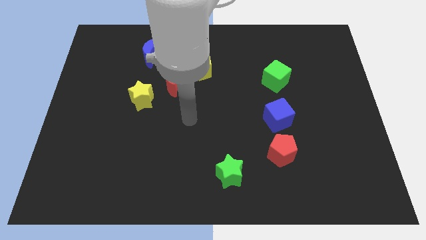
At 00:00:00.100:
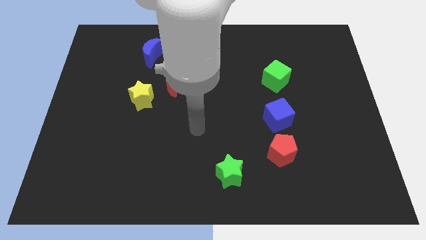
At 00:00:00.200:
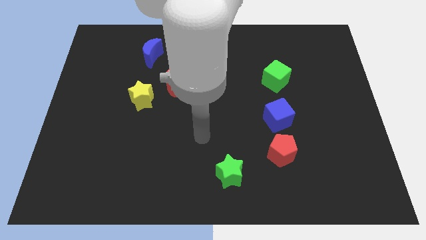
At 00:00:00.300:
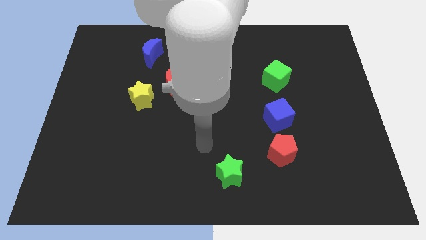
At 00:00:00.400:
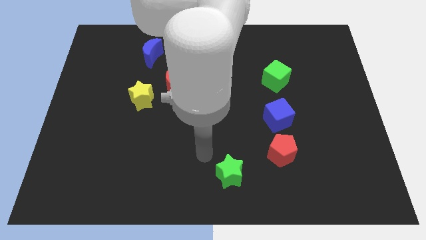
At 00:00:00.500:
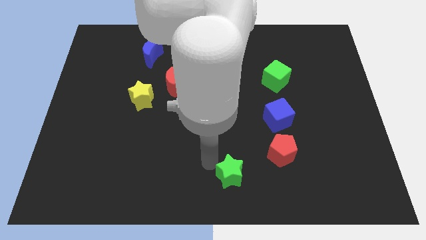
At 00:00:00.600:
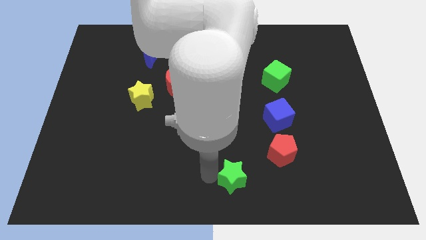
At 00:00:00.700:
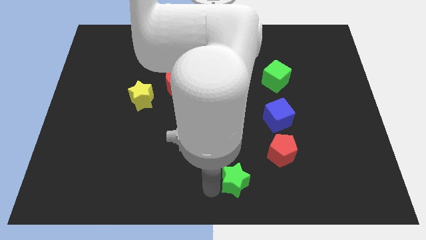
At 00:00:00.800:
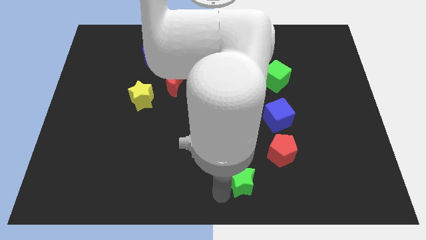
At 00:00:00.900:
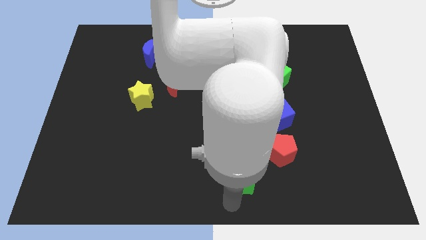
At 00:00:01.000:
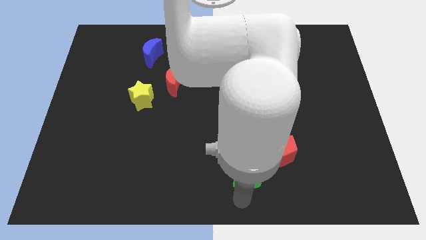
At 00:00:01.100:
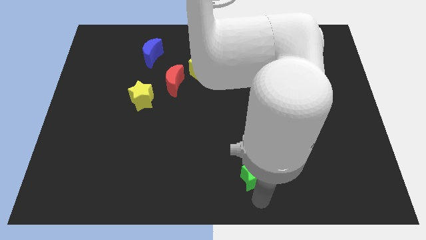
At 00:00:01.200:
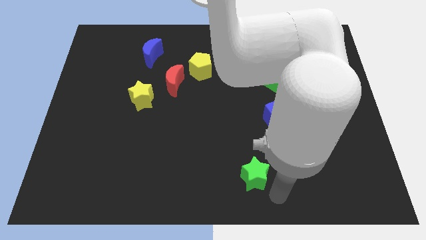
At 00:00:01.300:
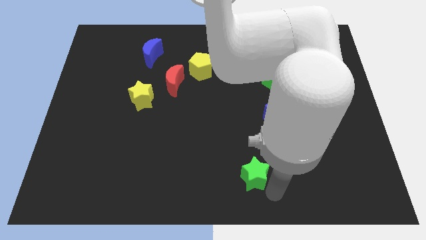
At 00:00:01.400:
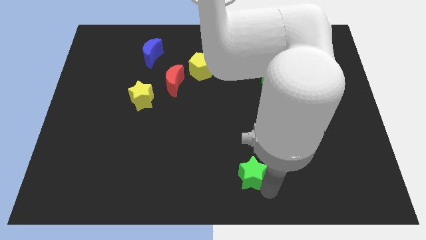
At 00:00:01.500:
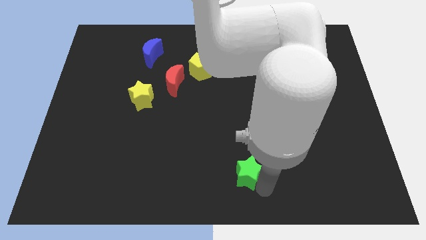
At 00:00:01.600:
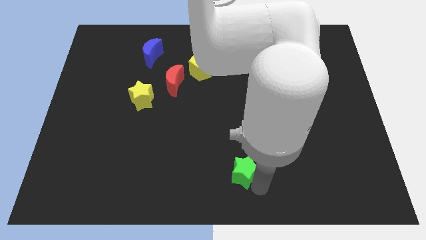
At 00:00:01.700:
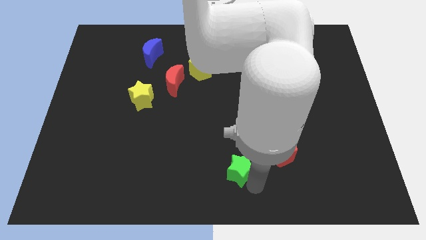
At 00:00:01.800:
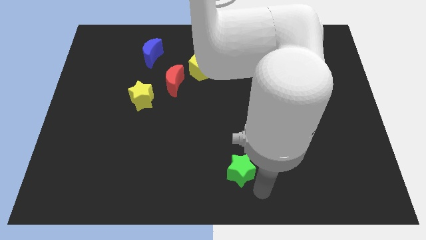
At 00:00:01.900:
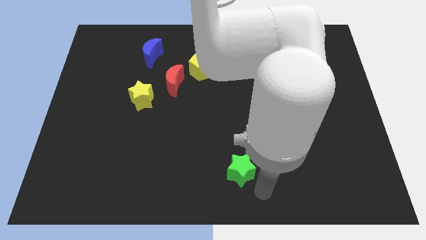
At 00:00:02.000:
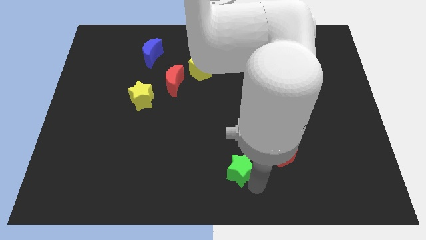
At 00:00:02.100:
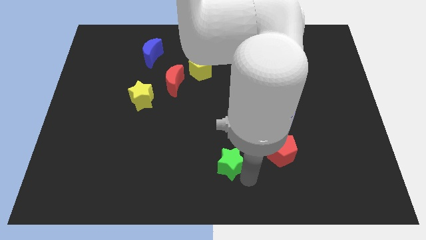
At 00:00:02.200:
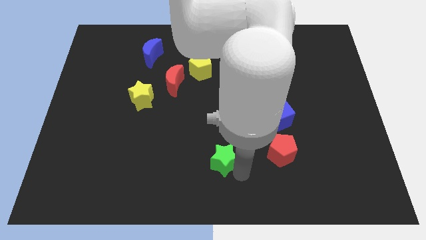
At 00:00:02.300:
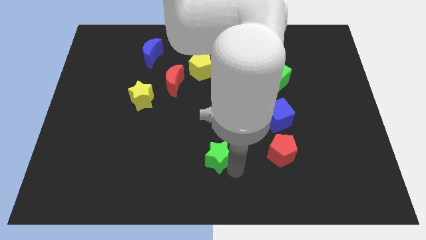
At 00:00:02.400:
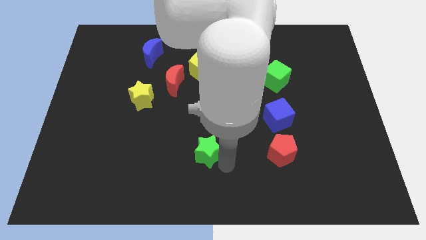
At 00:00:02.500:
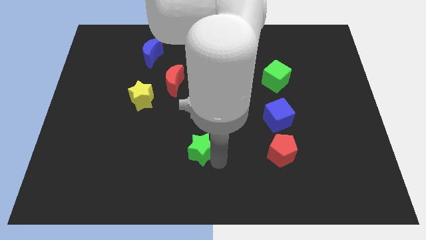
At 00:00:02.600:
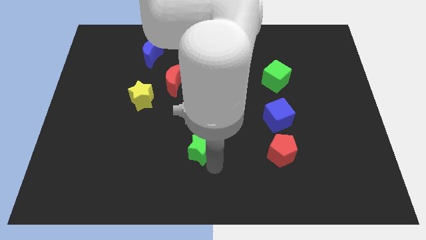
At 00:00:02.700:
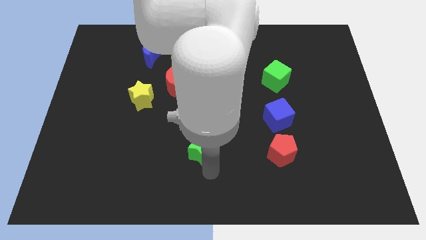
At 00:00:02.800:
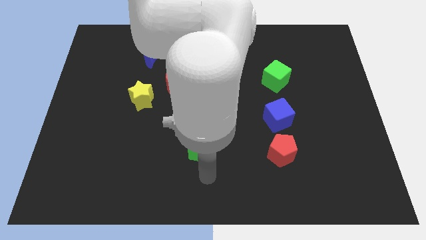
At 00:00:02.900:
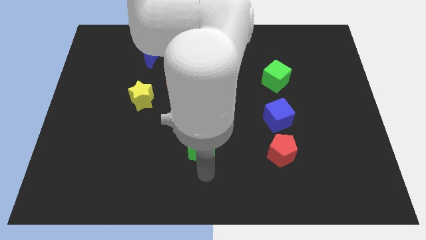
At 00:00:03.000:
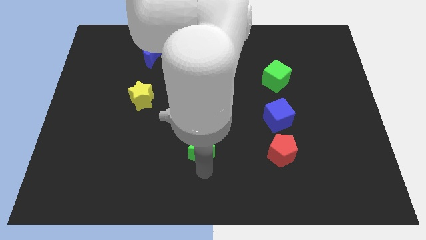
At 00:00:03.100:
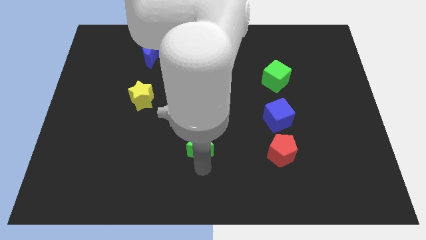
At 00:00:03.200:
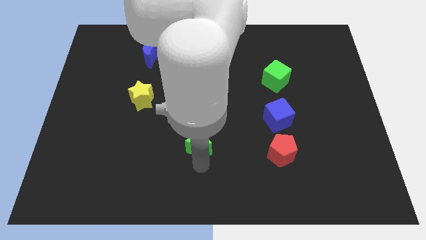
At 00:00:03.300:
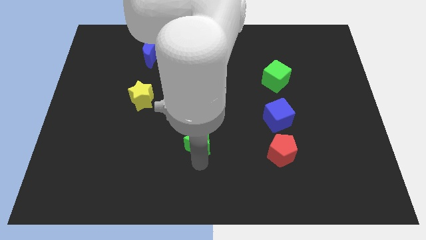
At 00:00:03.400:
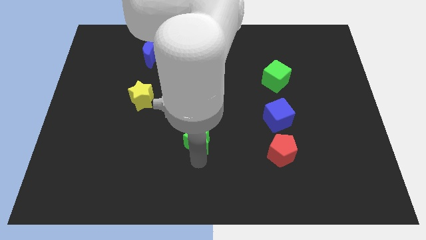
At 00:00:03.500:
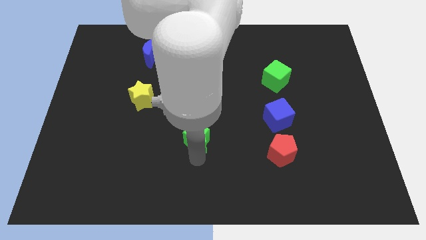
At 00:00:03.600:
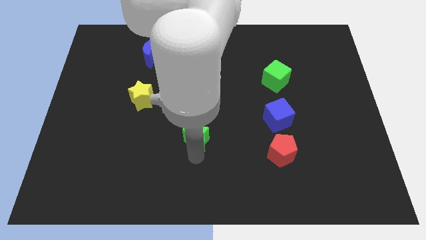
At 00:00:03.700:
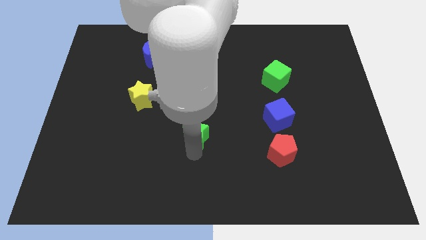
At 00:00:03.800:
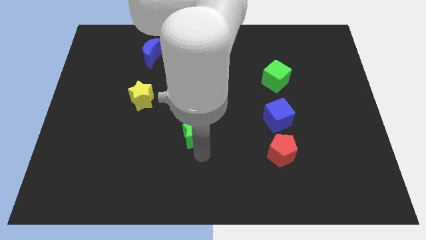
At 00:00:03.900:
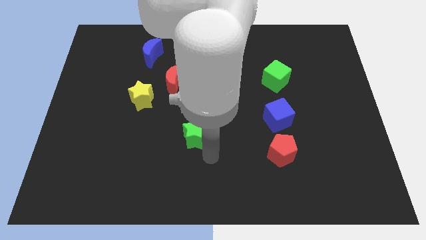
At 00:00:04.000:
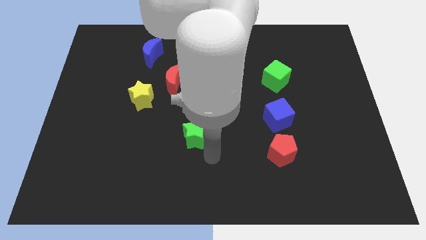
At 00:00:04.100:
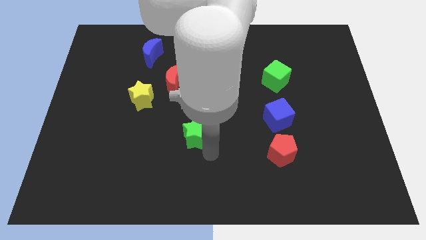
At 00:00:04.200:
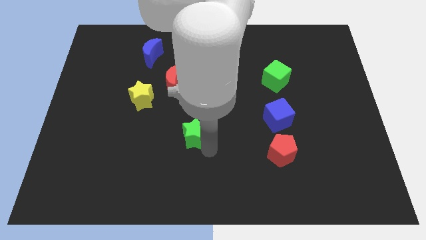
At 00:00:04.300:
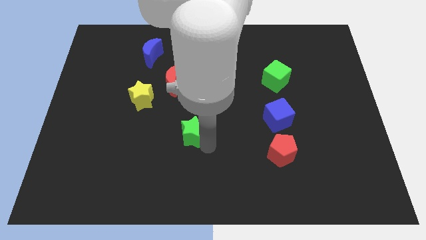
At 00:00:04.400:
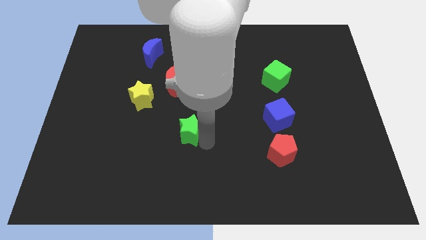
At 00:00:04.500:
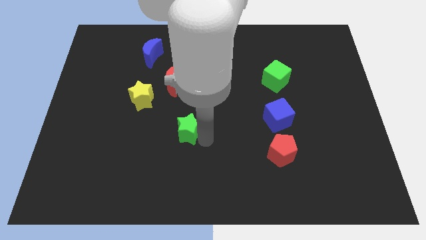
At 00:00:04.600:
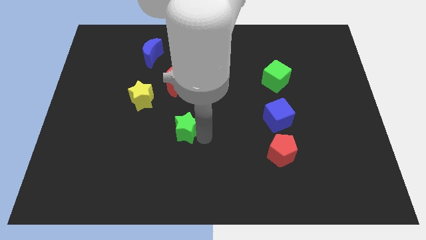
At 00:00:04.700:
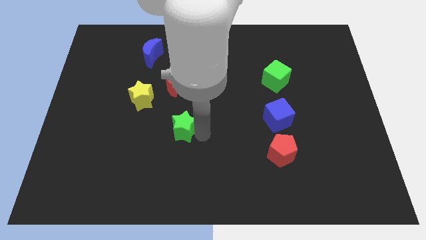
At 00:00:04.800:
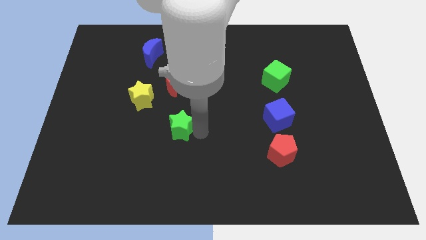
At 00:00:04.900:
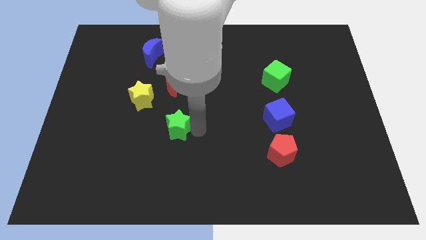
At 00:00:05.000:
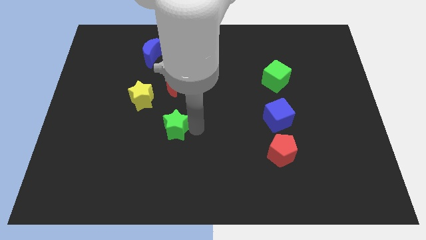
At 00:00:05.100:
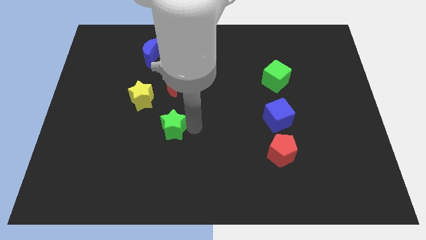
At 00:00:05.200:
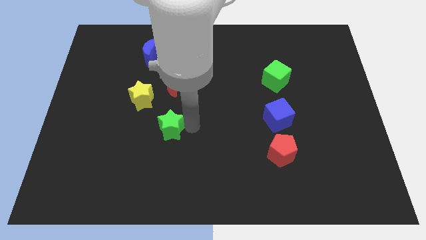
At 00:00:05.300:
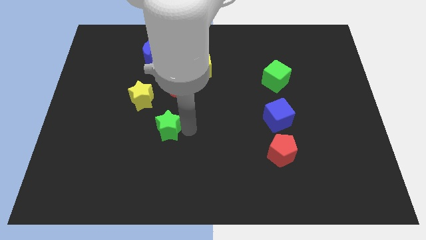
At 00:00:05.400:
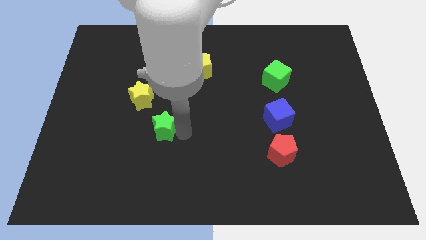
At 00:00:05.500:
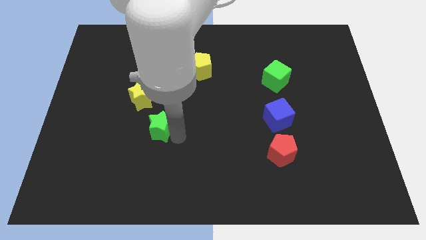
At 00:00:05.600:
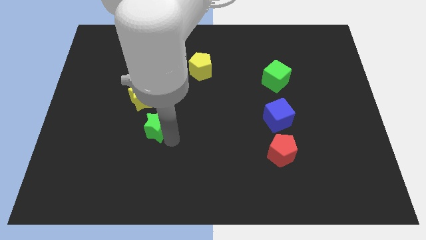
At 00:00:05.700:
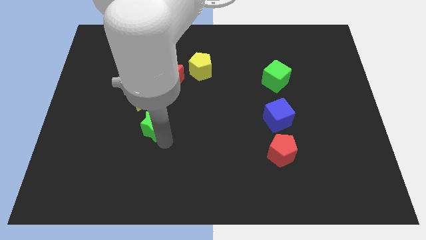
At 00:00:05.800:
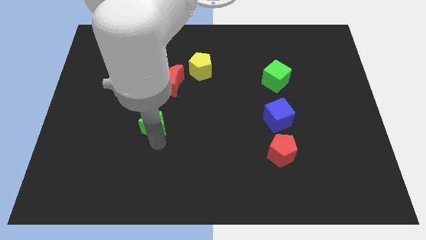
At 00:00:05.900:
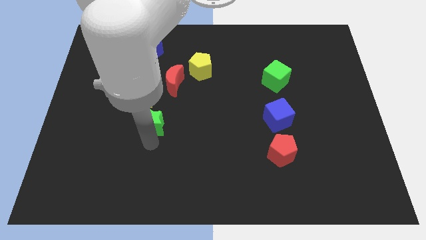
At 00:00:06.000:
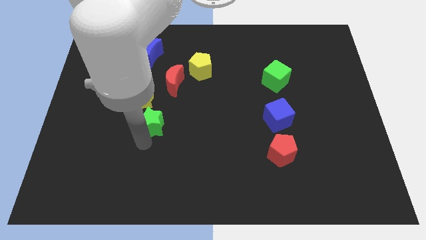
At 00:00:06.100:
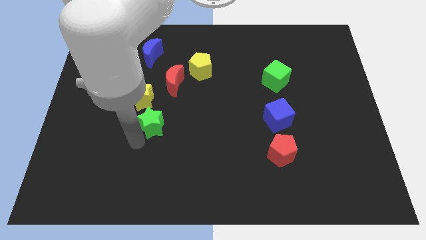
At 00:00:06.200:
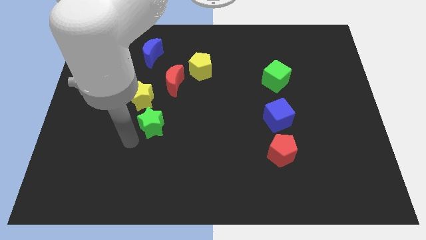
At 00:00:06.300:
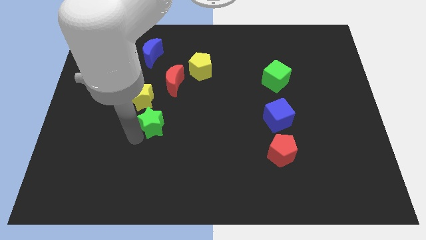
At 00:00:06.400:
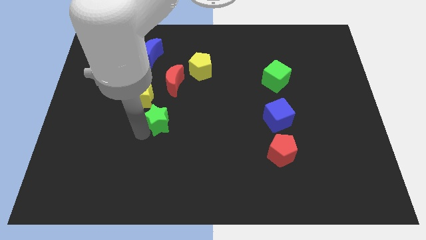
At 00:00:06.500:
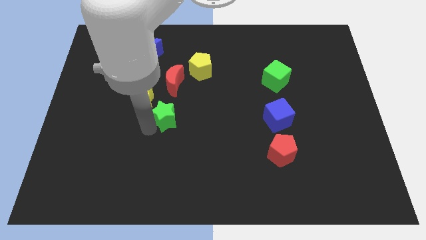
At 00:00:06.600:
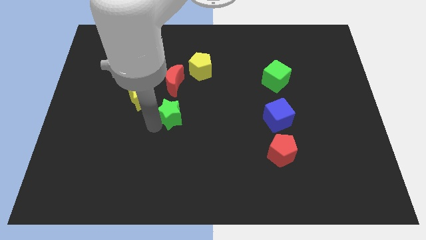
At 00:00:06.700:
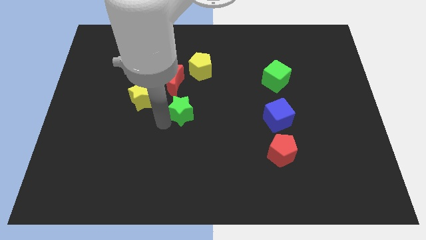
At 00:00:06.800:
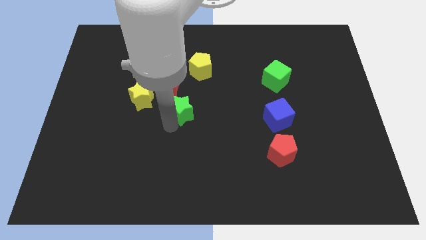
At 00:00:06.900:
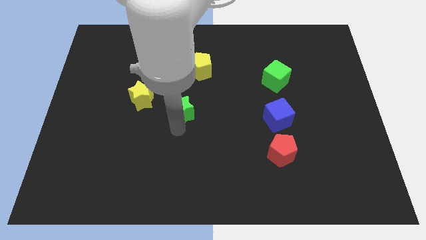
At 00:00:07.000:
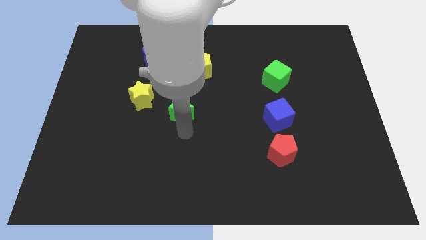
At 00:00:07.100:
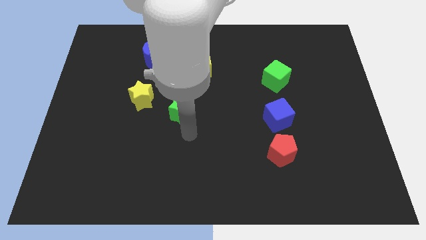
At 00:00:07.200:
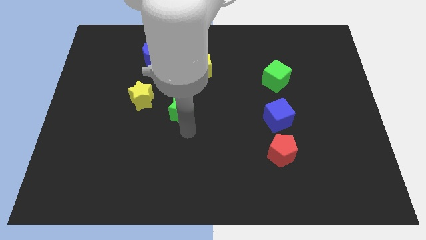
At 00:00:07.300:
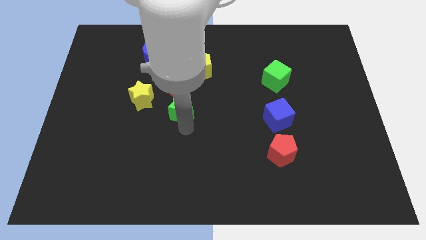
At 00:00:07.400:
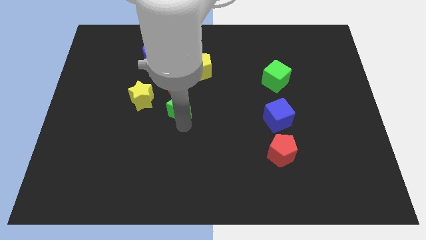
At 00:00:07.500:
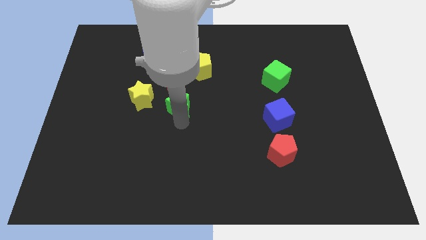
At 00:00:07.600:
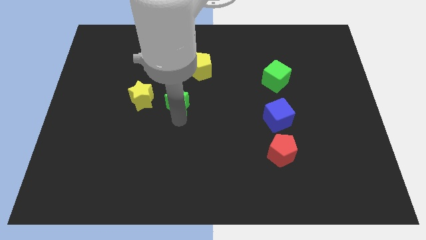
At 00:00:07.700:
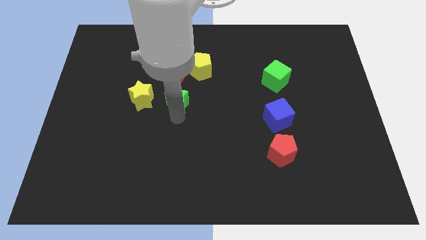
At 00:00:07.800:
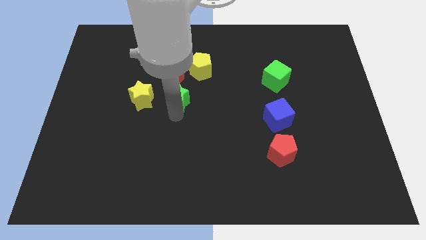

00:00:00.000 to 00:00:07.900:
put the green star next to the red moon
